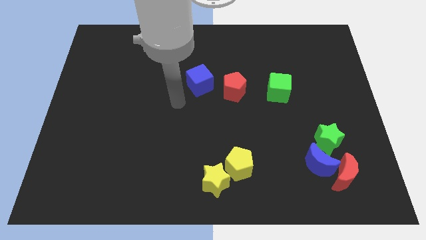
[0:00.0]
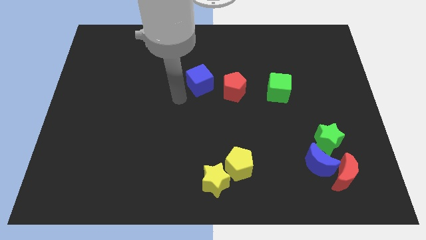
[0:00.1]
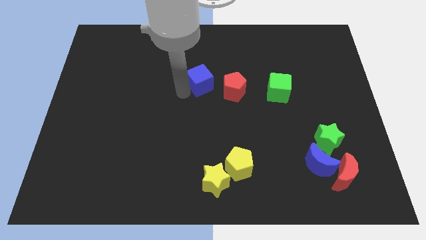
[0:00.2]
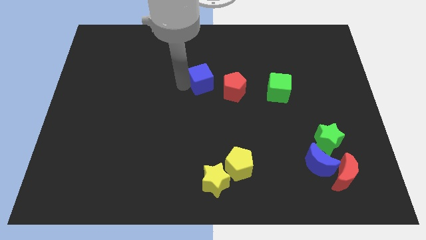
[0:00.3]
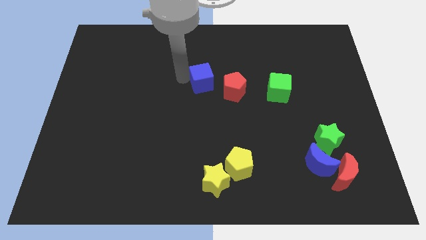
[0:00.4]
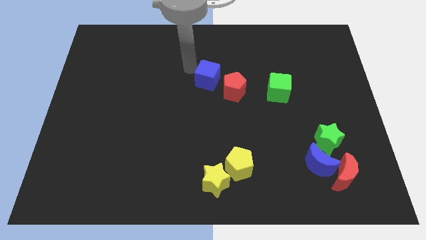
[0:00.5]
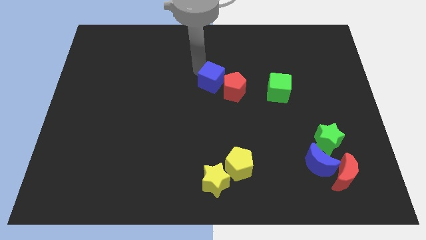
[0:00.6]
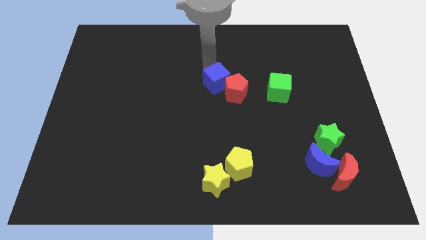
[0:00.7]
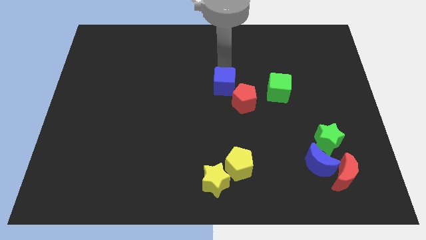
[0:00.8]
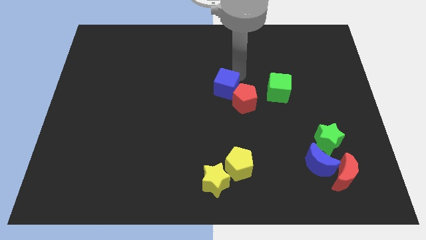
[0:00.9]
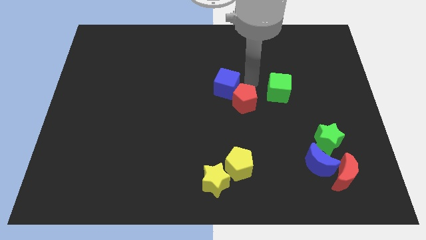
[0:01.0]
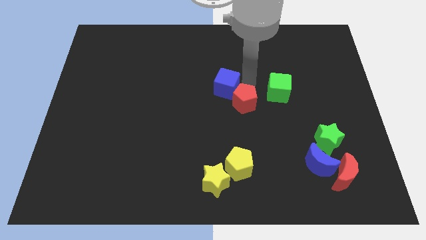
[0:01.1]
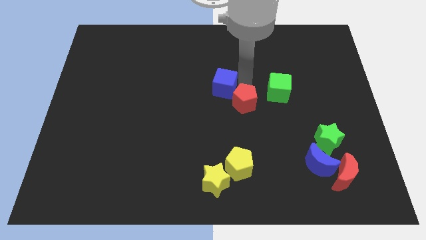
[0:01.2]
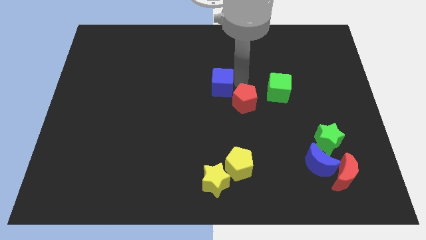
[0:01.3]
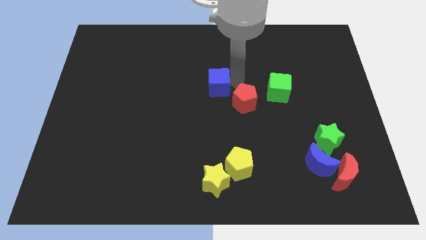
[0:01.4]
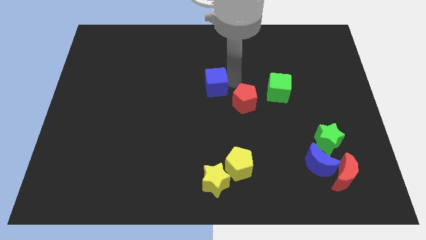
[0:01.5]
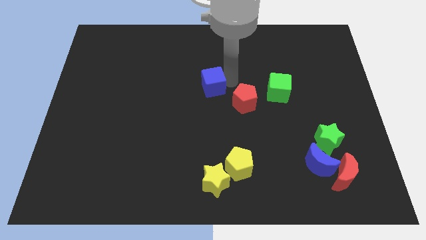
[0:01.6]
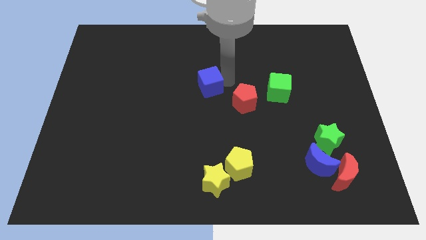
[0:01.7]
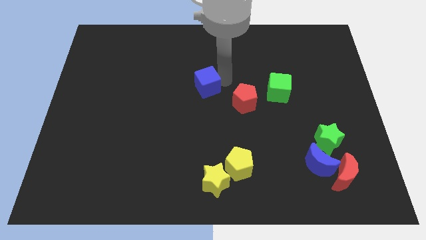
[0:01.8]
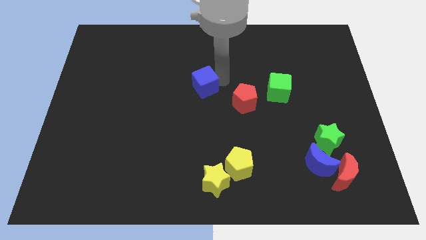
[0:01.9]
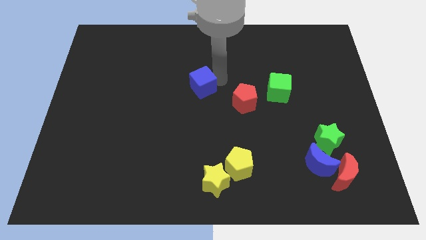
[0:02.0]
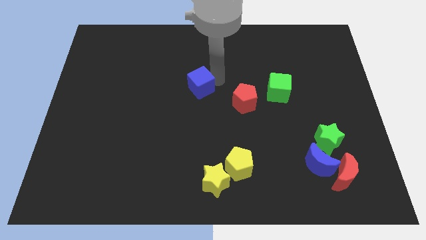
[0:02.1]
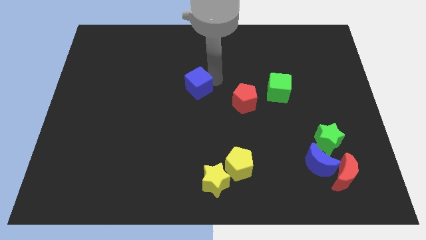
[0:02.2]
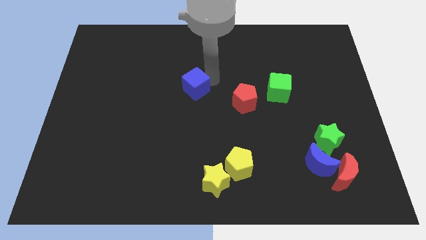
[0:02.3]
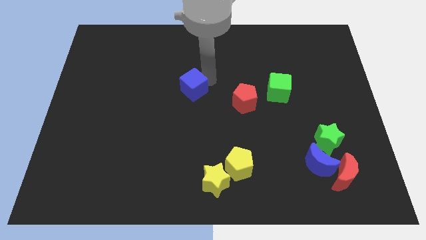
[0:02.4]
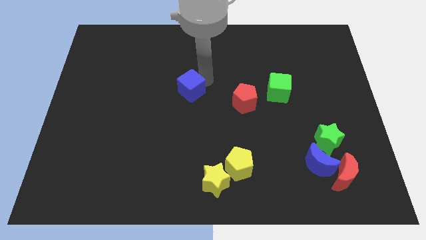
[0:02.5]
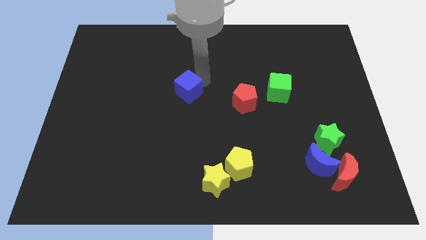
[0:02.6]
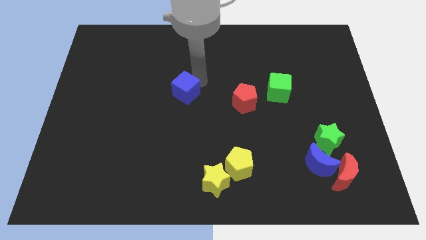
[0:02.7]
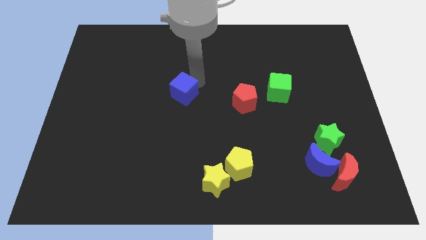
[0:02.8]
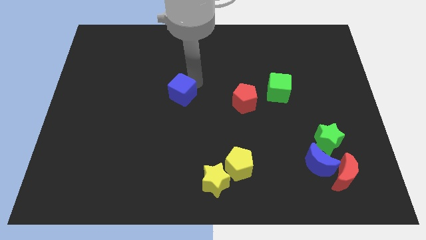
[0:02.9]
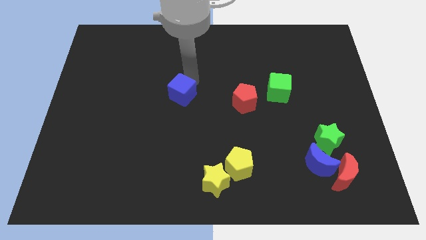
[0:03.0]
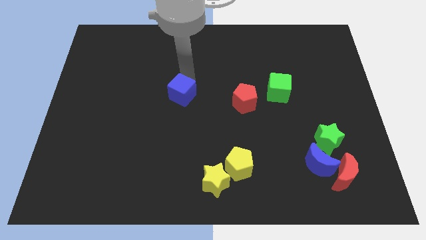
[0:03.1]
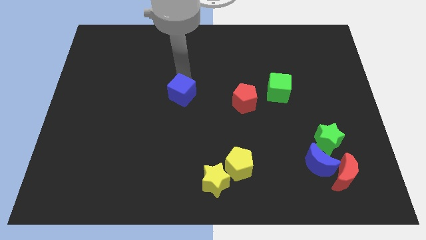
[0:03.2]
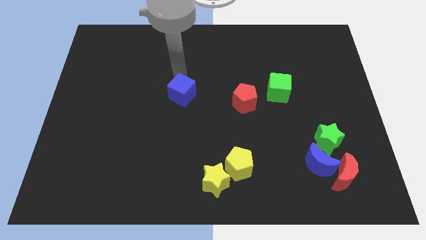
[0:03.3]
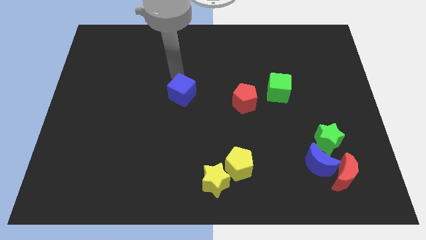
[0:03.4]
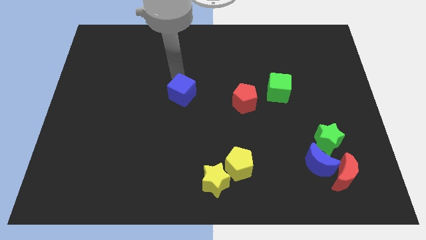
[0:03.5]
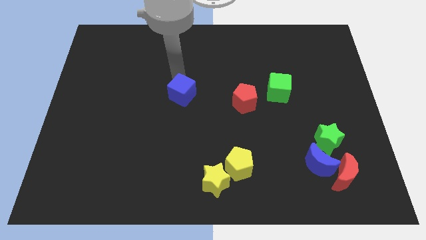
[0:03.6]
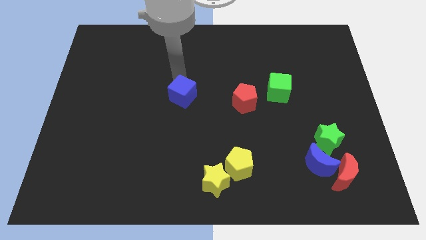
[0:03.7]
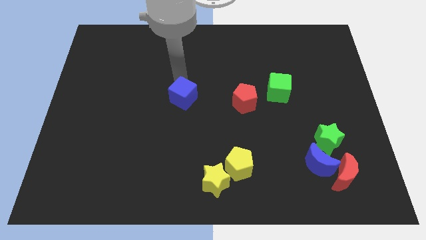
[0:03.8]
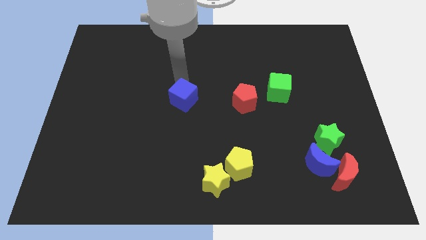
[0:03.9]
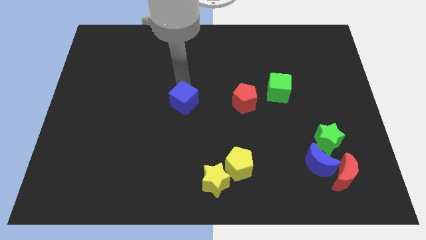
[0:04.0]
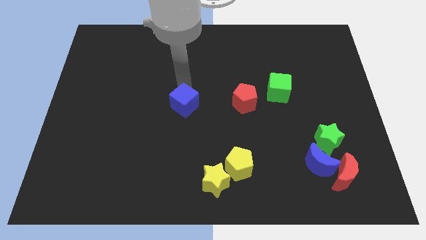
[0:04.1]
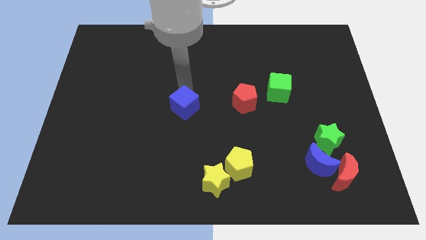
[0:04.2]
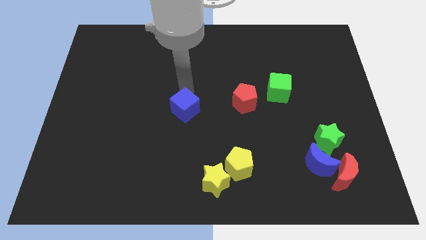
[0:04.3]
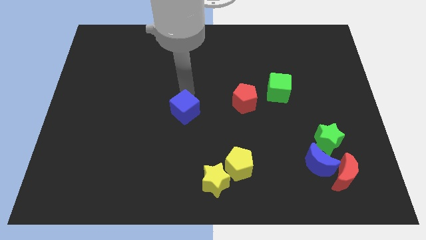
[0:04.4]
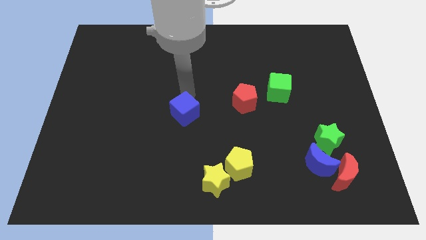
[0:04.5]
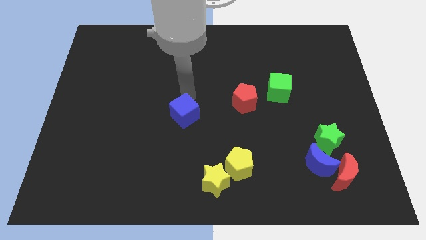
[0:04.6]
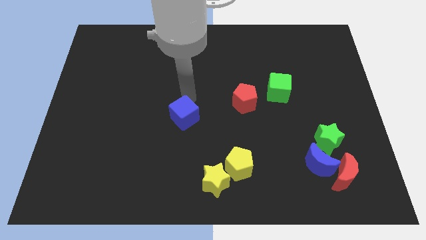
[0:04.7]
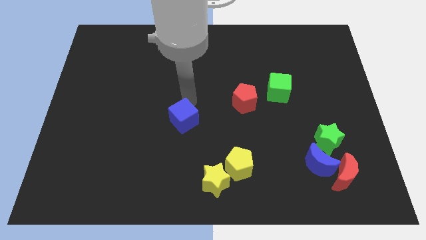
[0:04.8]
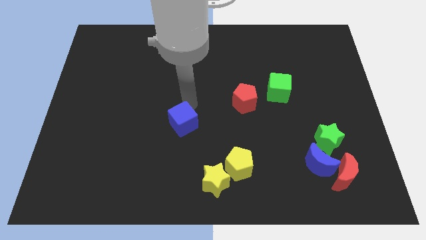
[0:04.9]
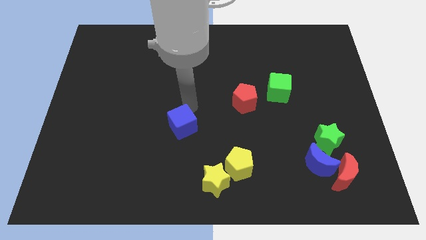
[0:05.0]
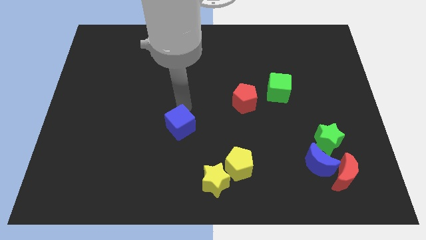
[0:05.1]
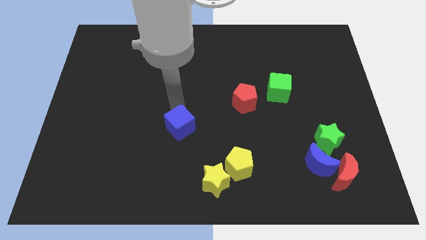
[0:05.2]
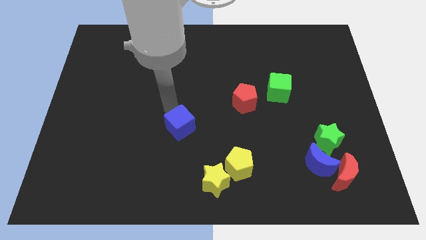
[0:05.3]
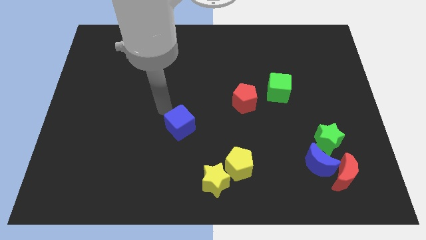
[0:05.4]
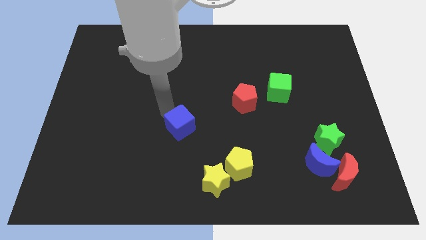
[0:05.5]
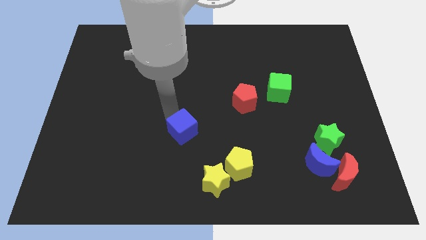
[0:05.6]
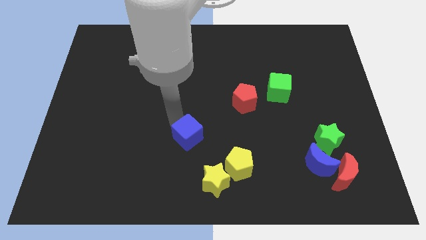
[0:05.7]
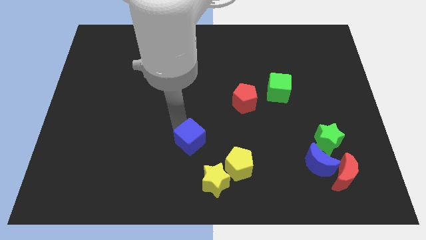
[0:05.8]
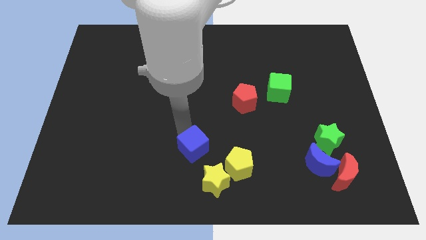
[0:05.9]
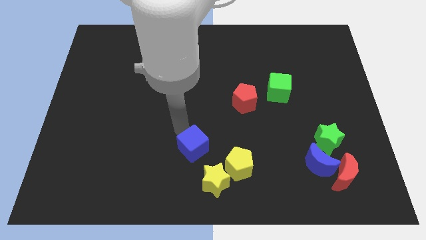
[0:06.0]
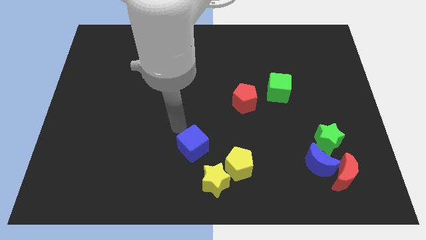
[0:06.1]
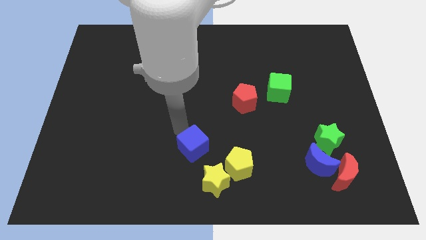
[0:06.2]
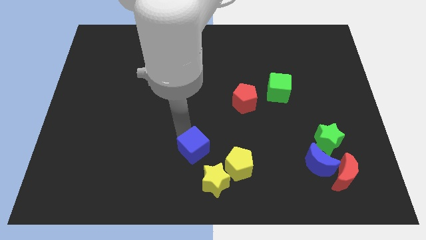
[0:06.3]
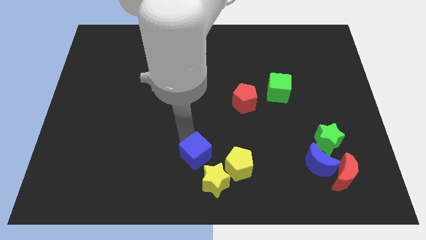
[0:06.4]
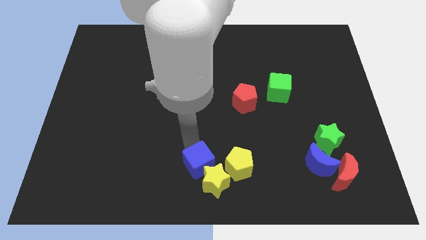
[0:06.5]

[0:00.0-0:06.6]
slide the blue cube next to the yellow star

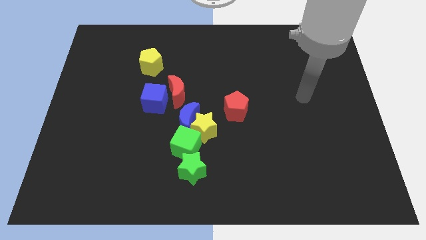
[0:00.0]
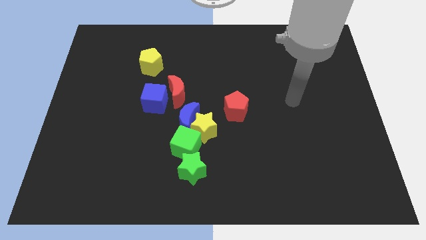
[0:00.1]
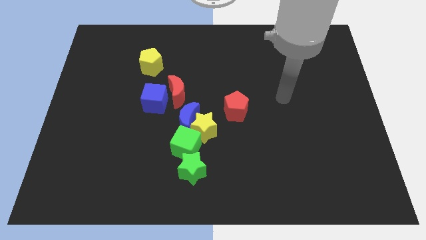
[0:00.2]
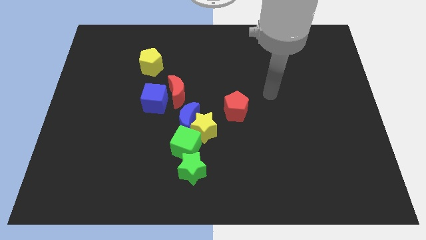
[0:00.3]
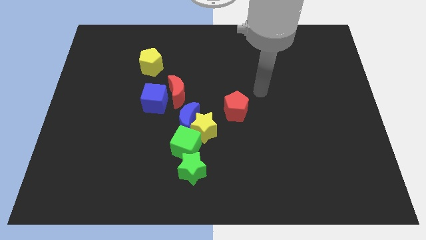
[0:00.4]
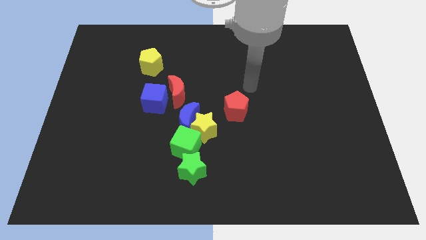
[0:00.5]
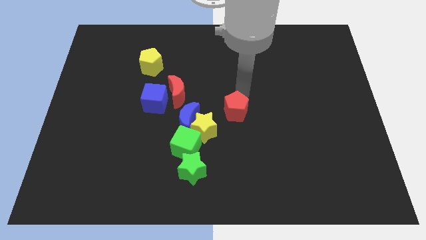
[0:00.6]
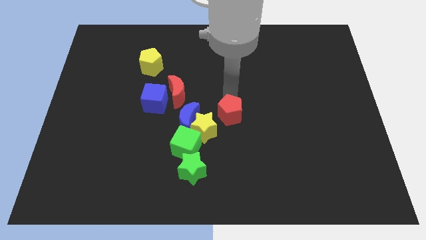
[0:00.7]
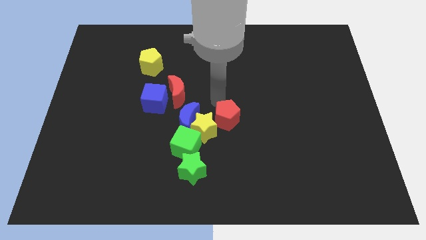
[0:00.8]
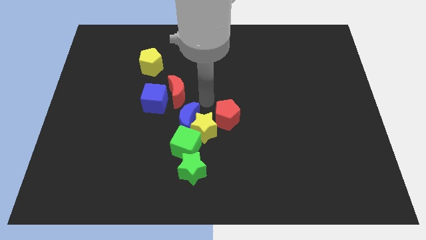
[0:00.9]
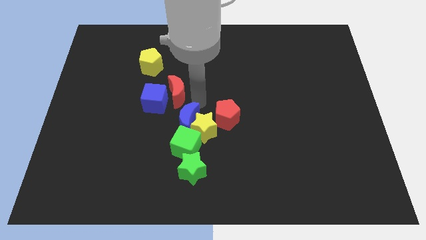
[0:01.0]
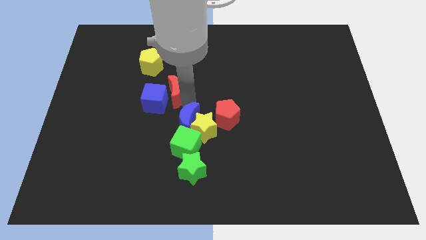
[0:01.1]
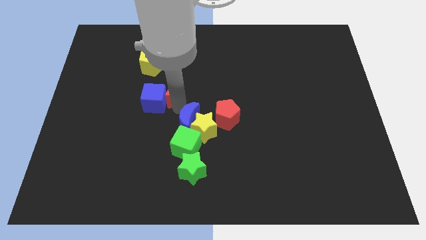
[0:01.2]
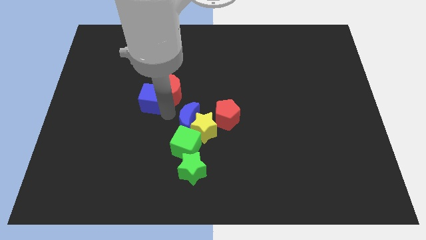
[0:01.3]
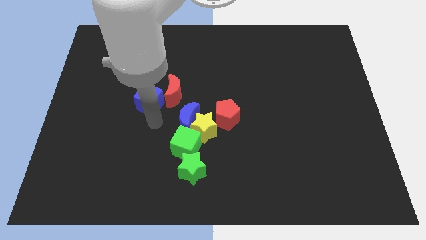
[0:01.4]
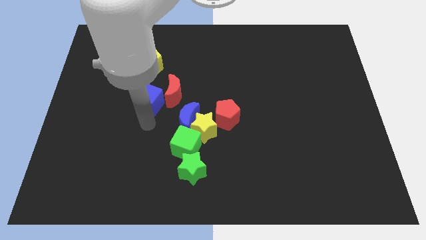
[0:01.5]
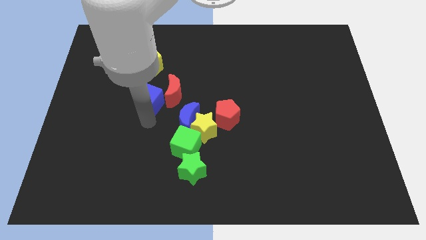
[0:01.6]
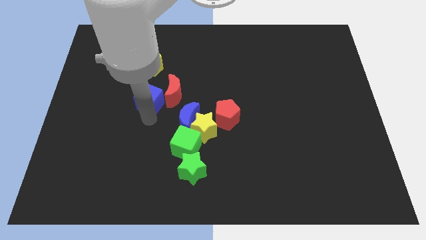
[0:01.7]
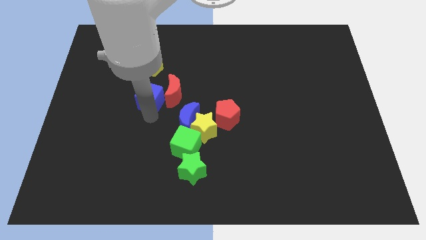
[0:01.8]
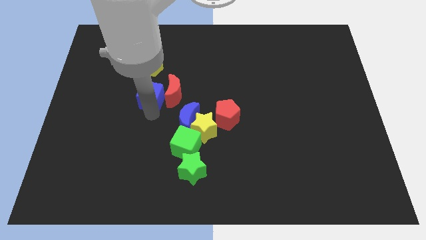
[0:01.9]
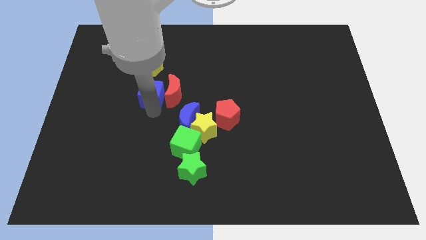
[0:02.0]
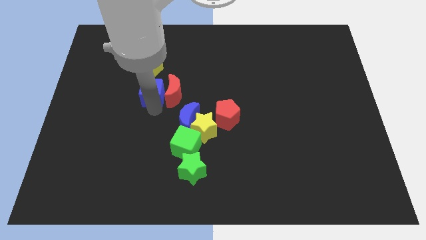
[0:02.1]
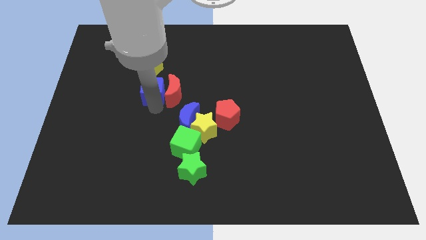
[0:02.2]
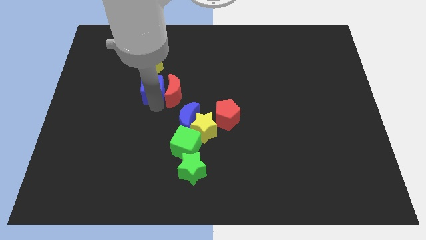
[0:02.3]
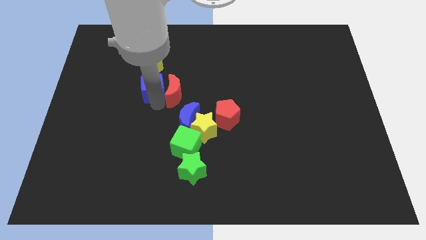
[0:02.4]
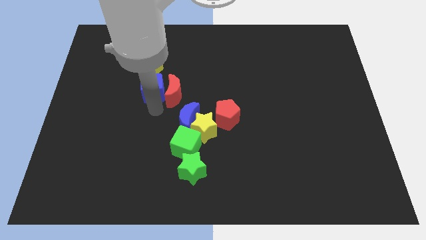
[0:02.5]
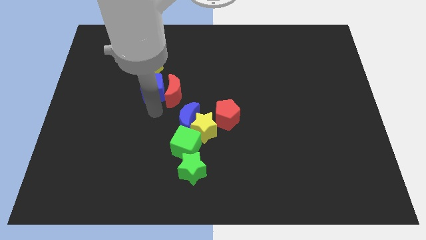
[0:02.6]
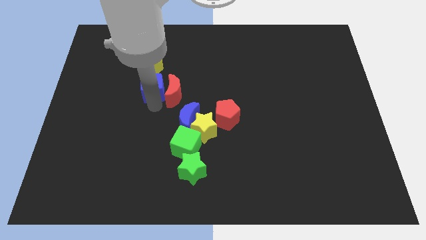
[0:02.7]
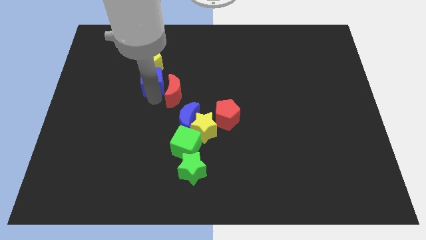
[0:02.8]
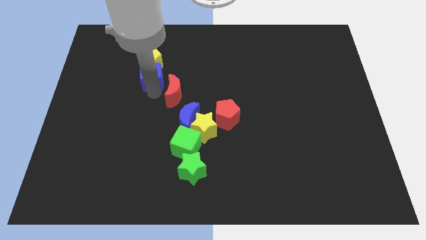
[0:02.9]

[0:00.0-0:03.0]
move the blue cube close to the yellow pentagon
